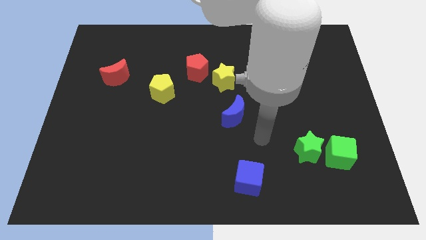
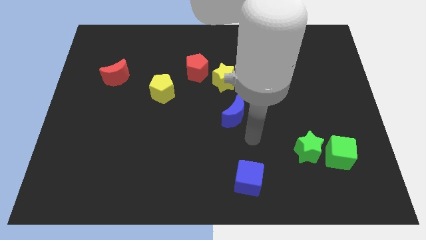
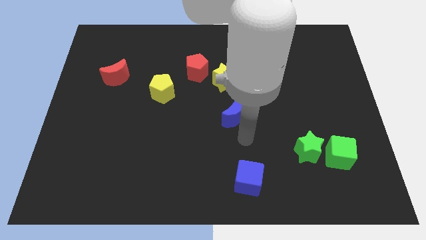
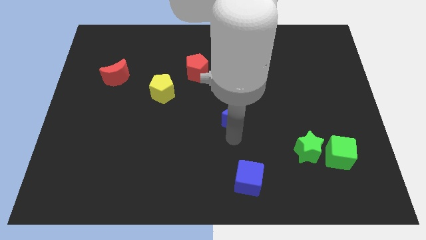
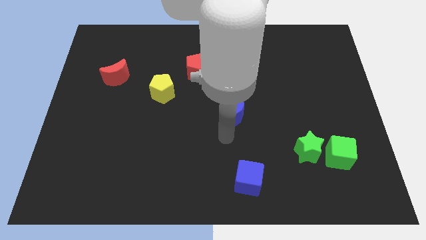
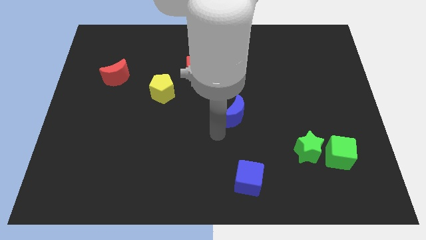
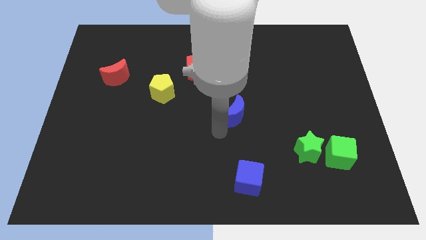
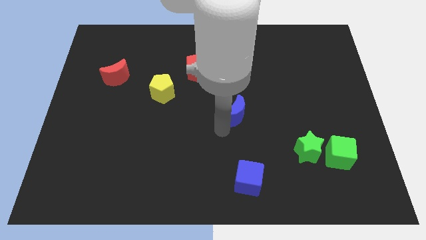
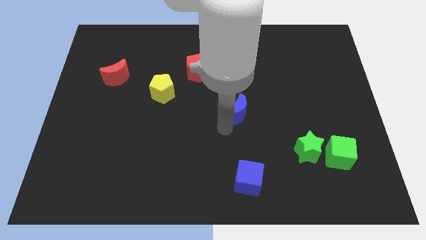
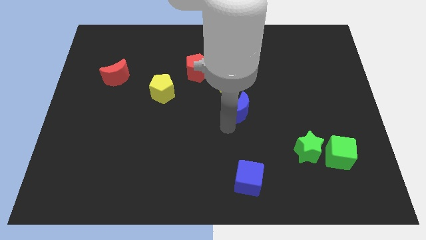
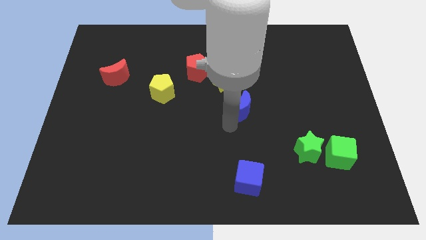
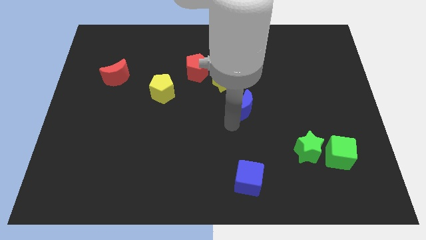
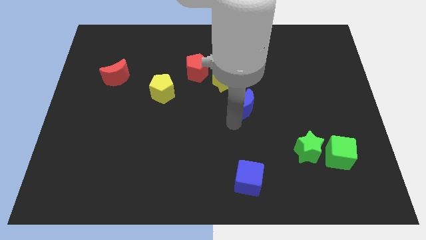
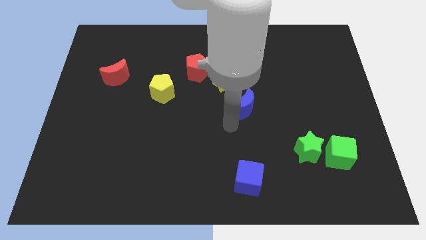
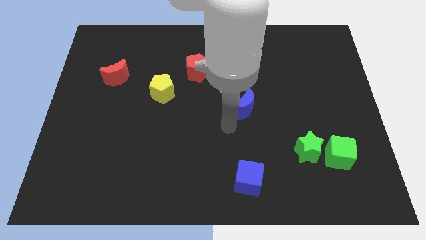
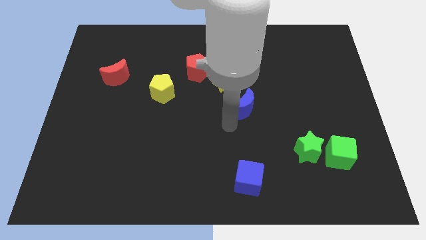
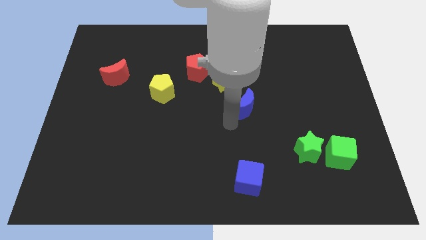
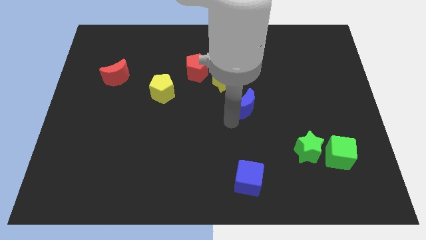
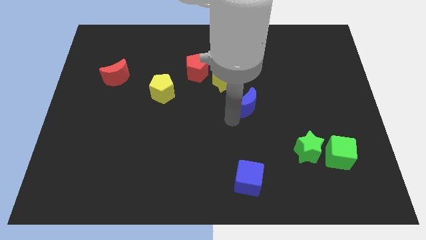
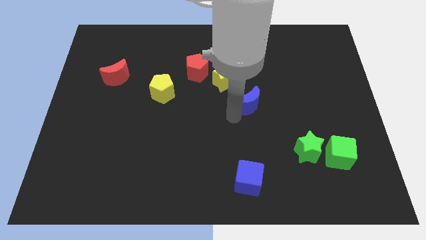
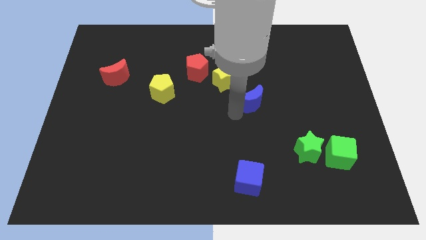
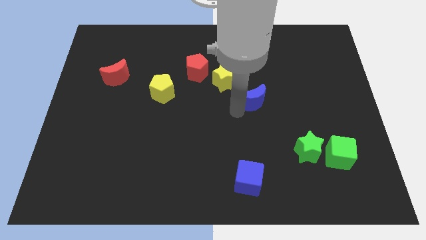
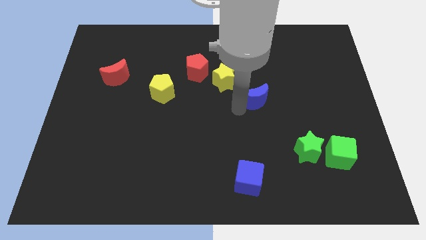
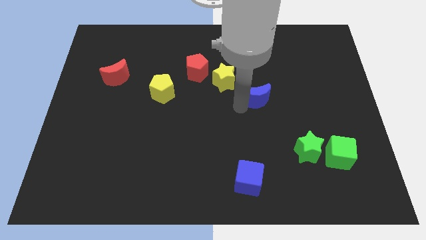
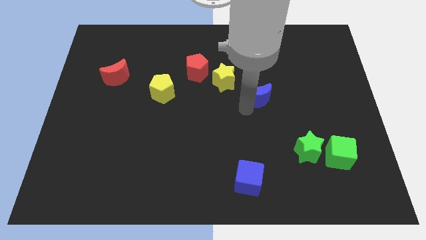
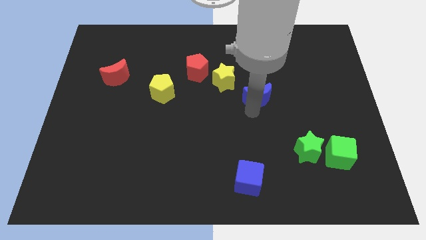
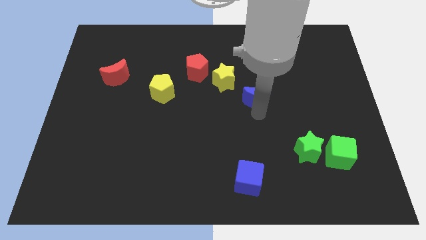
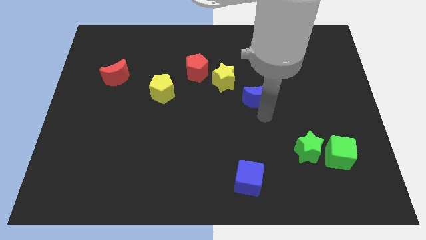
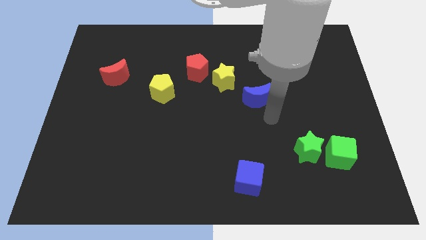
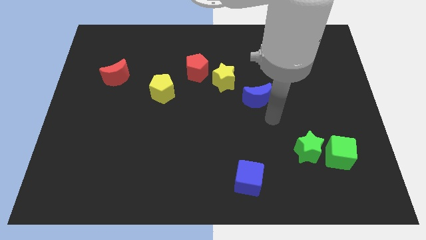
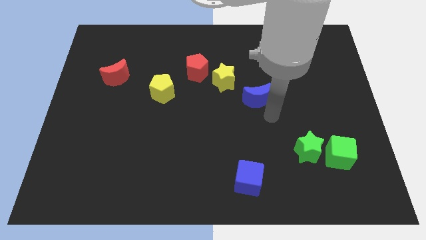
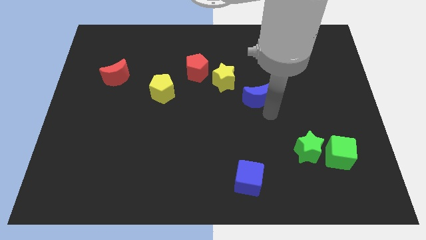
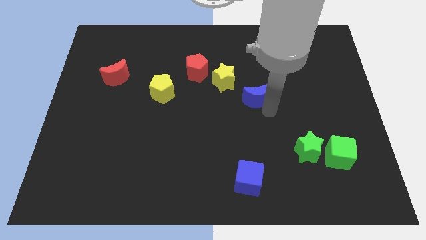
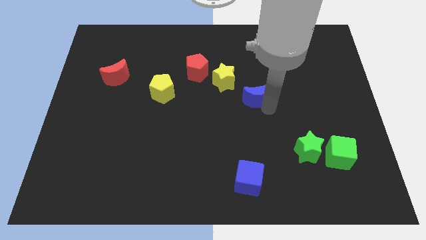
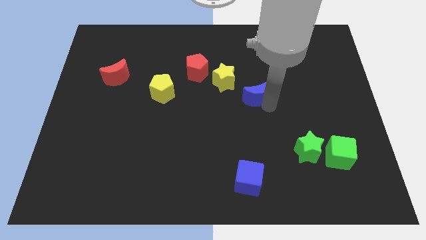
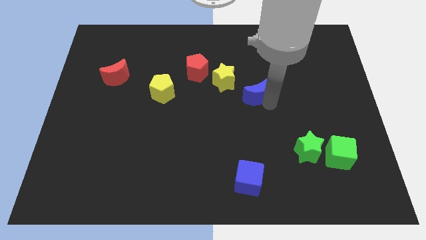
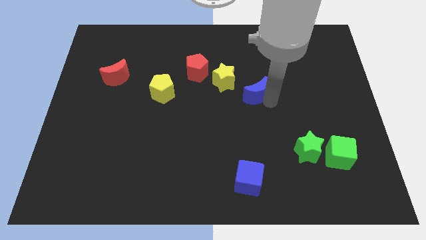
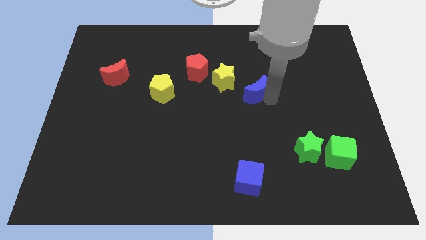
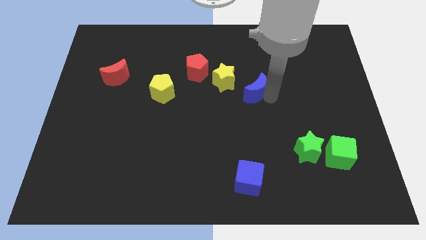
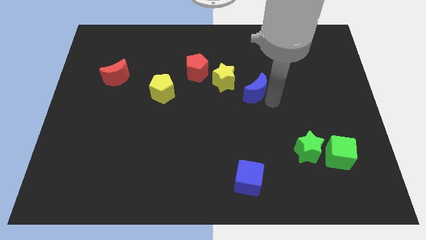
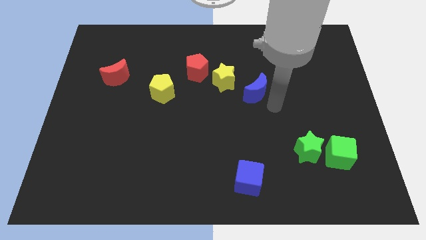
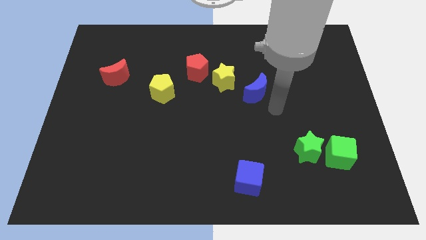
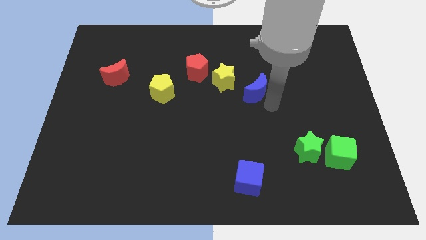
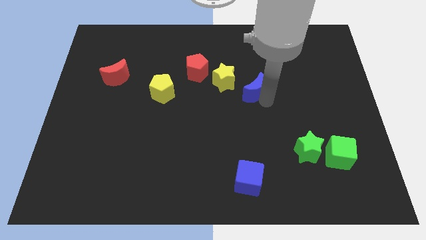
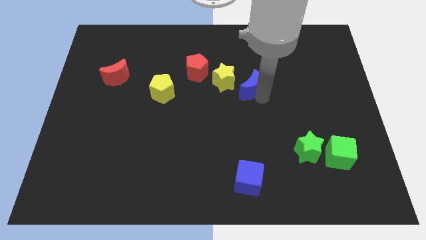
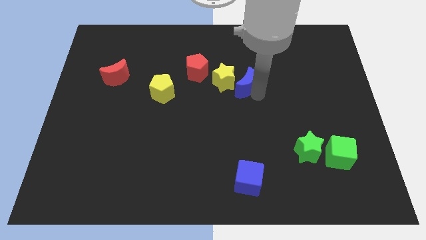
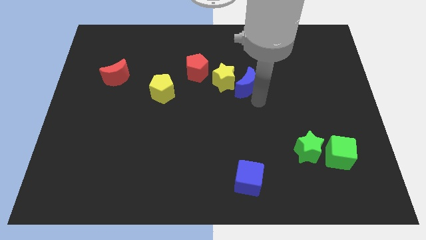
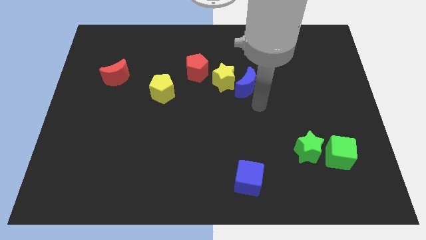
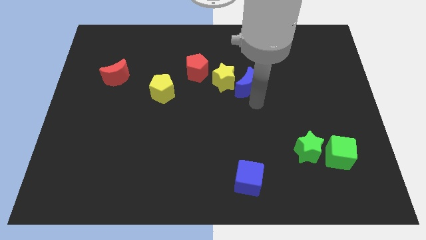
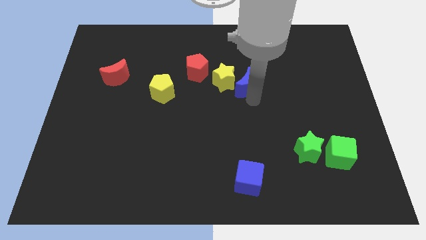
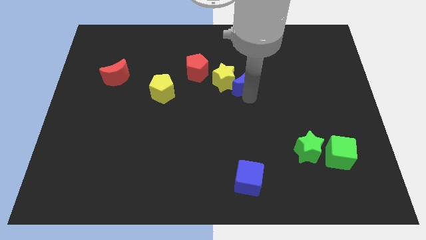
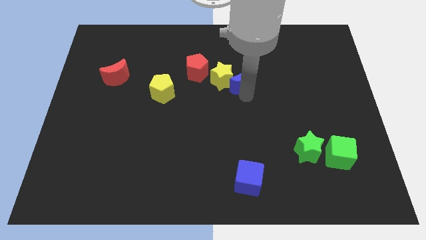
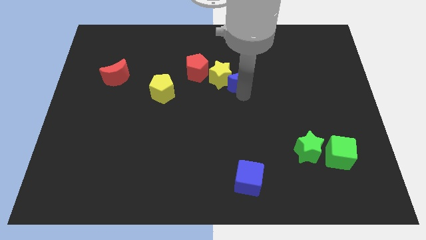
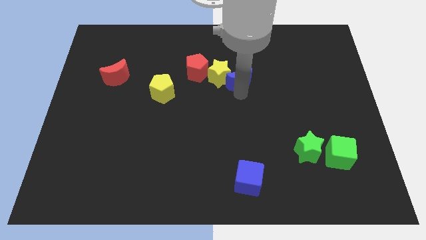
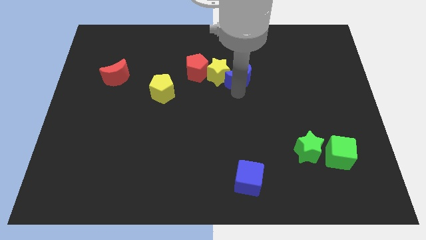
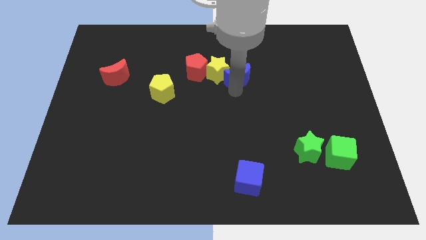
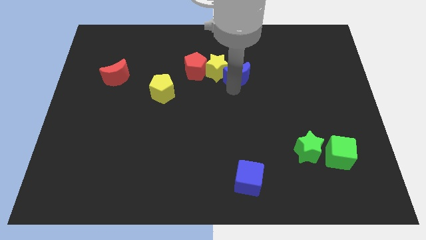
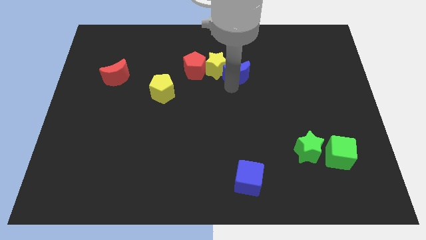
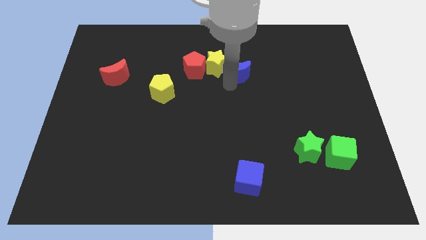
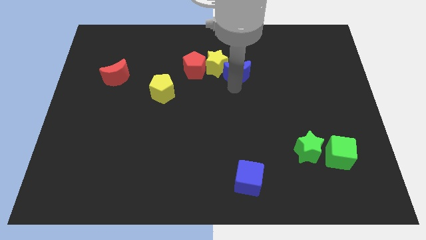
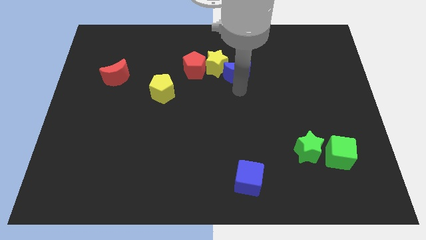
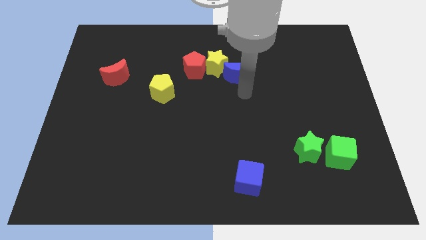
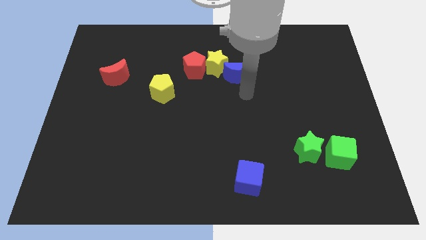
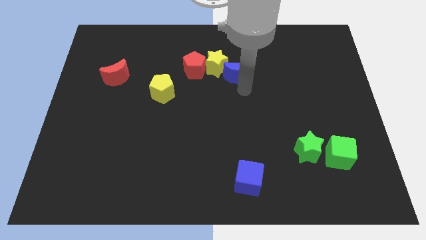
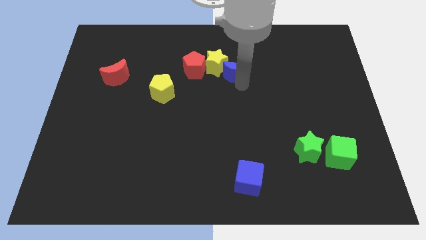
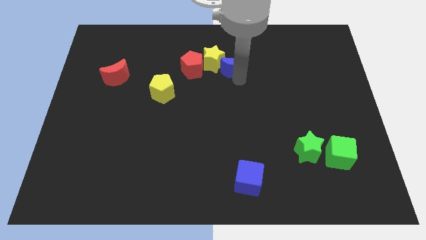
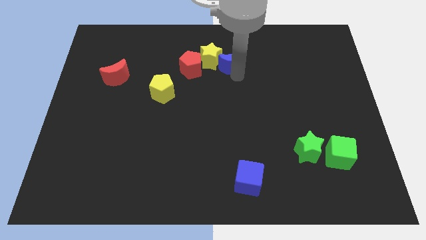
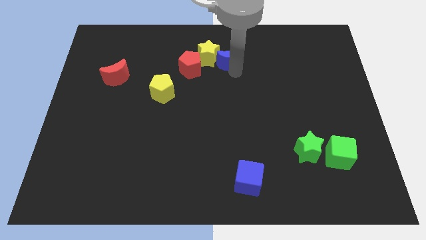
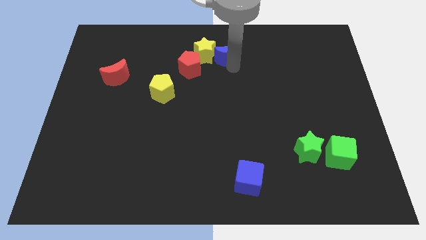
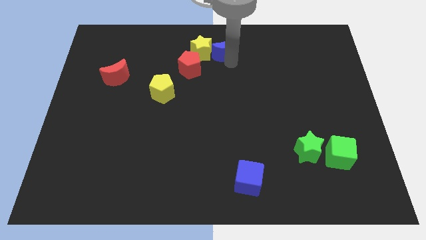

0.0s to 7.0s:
move the blue moon to the top side
